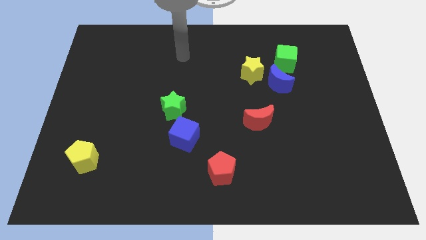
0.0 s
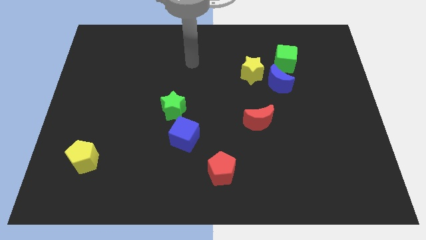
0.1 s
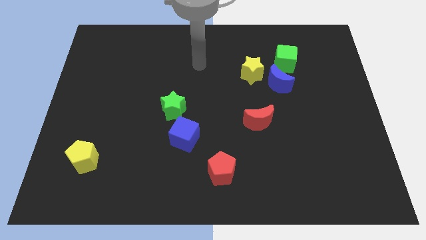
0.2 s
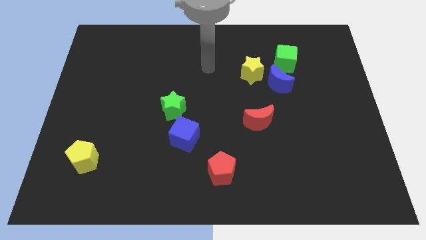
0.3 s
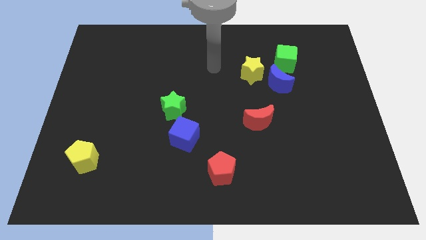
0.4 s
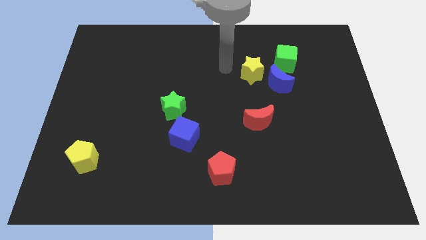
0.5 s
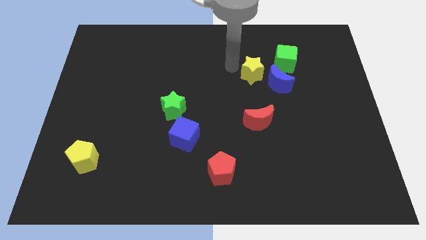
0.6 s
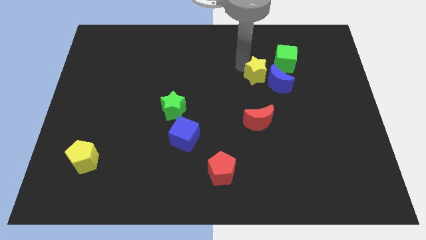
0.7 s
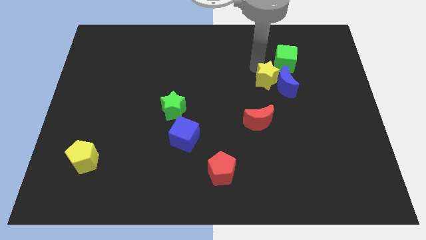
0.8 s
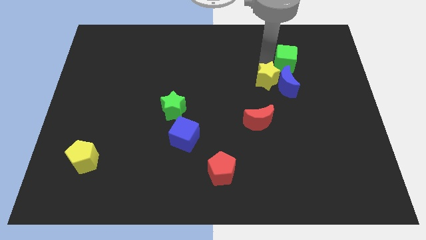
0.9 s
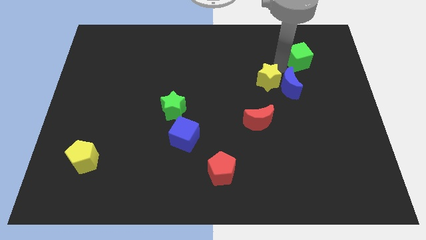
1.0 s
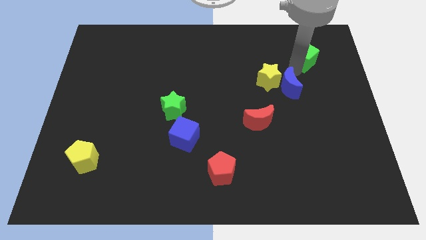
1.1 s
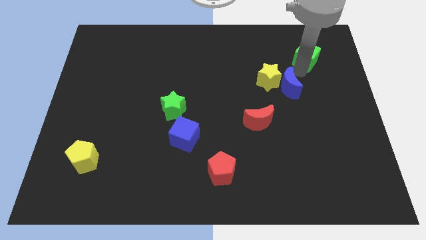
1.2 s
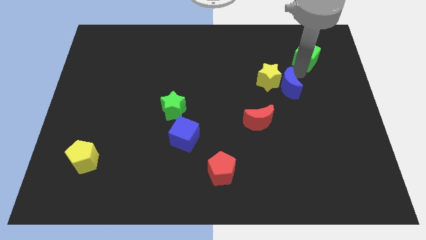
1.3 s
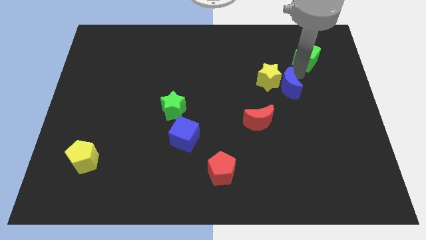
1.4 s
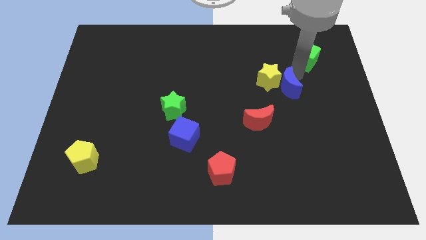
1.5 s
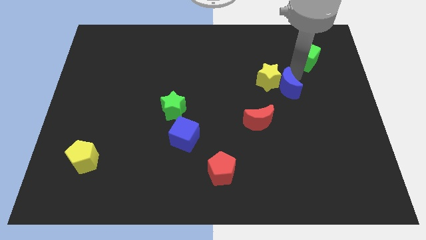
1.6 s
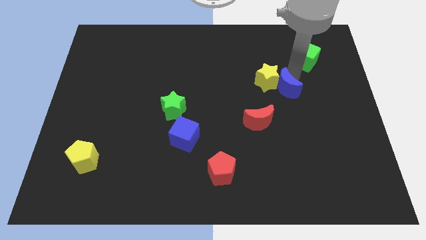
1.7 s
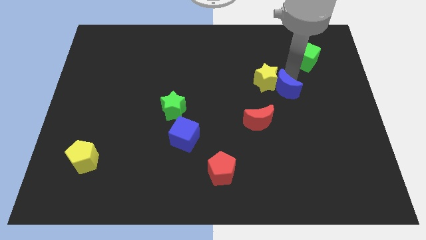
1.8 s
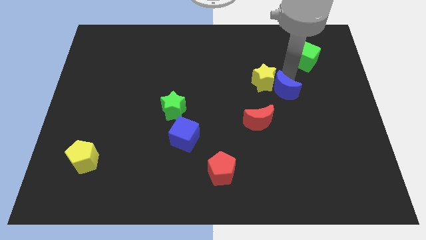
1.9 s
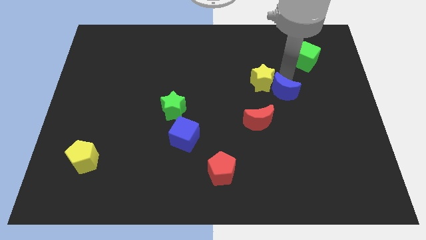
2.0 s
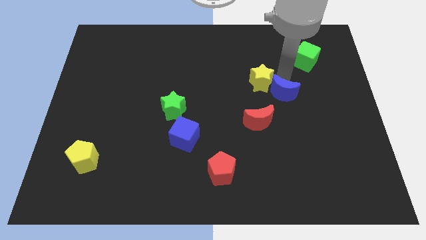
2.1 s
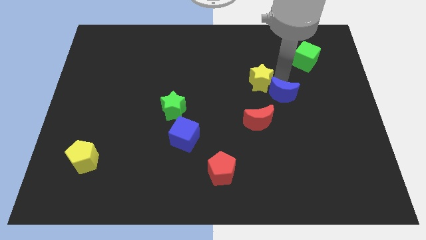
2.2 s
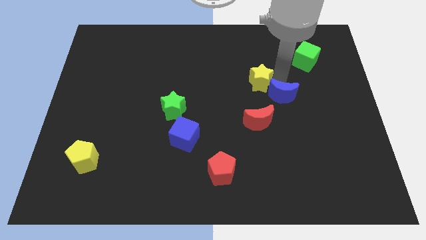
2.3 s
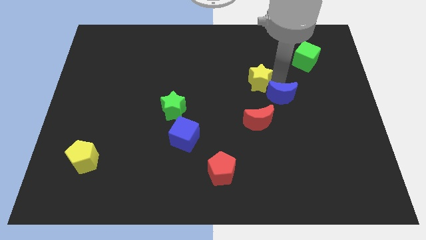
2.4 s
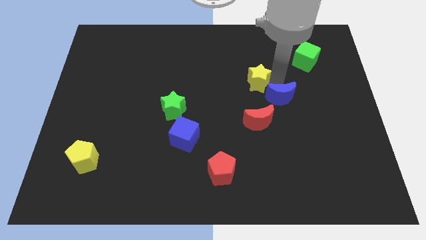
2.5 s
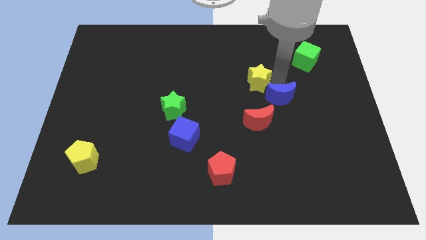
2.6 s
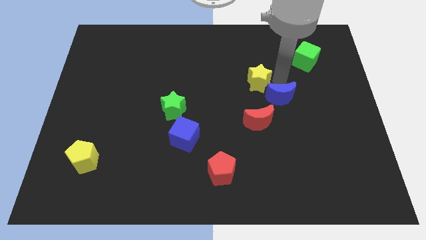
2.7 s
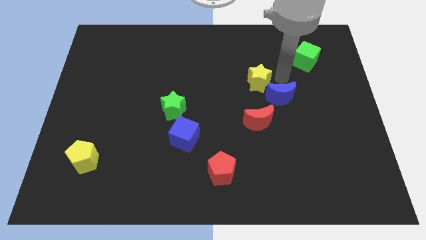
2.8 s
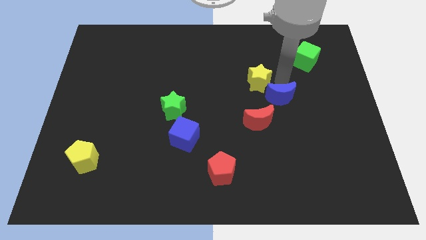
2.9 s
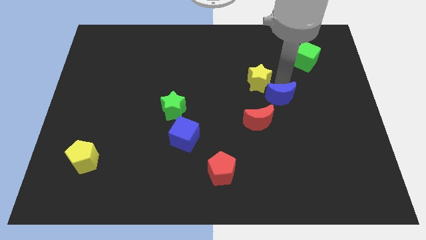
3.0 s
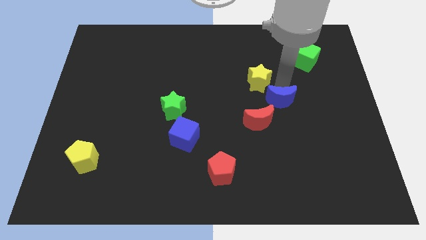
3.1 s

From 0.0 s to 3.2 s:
pull the blue moon apart from the yellow star and green cube

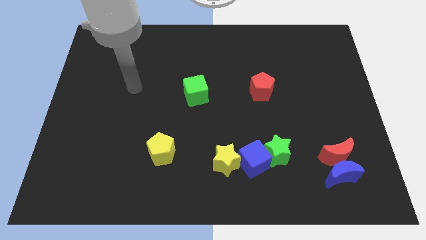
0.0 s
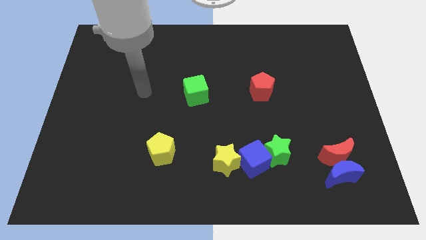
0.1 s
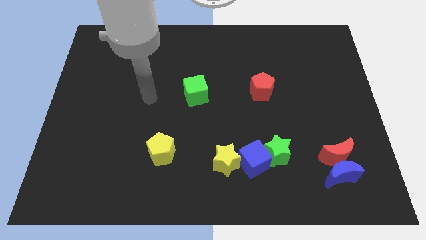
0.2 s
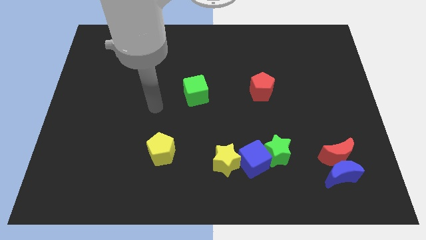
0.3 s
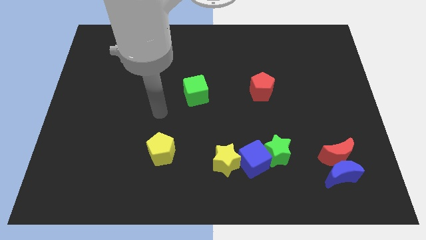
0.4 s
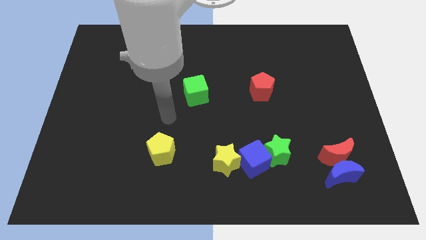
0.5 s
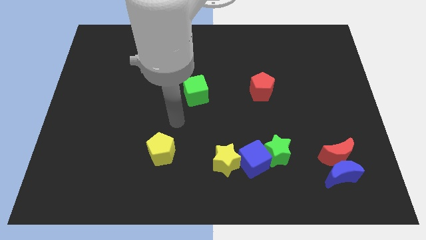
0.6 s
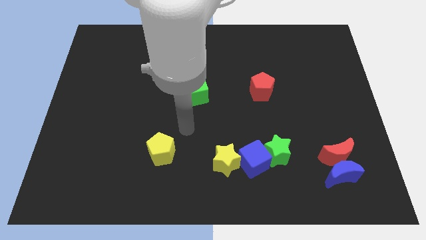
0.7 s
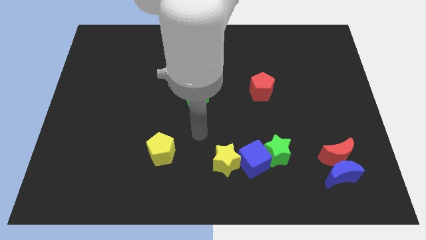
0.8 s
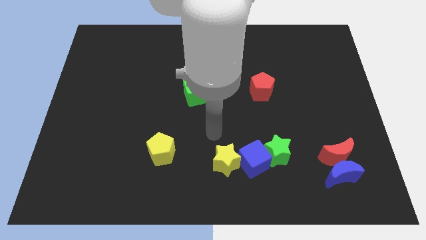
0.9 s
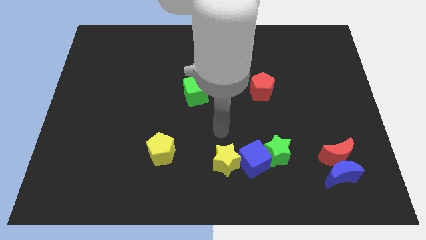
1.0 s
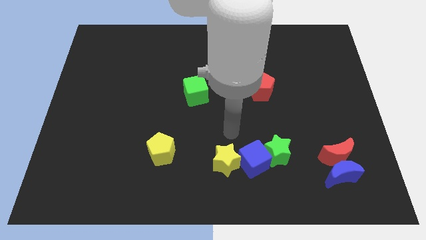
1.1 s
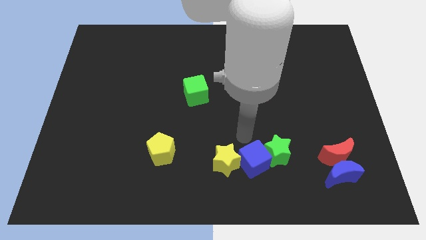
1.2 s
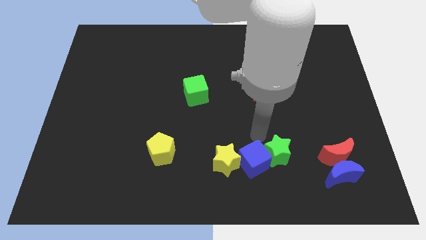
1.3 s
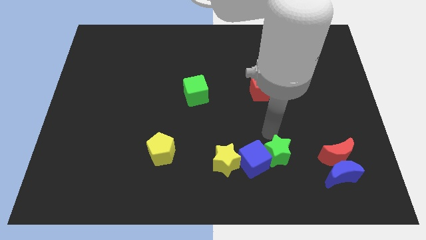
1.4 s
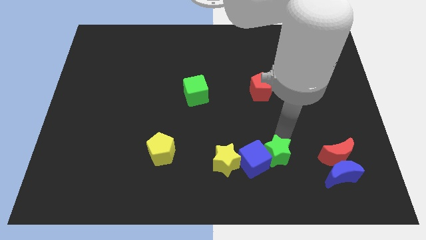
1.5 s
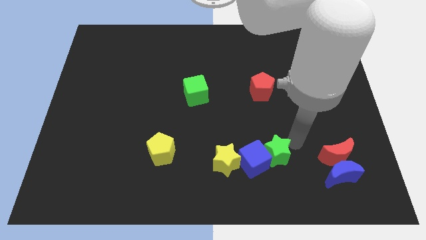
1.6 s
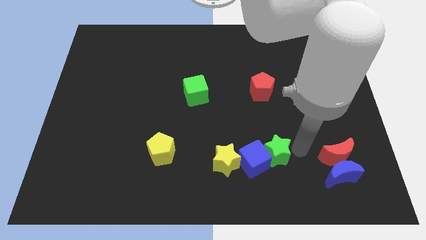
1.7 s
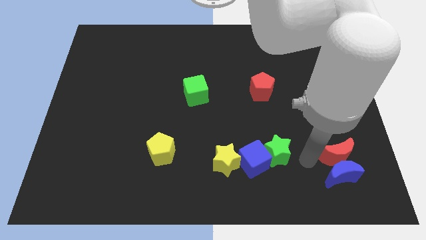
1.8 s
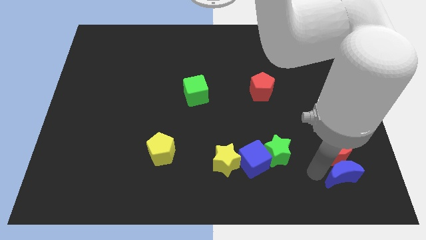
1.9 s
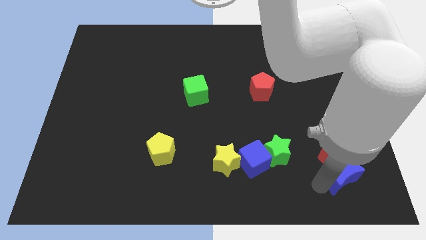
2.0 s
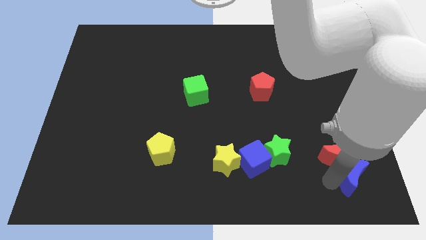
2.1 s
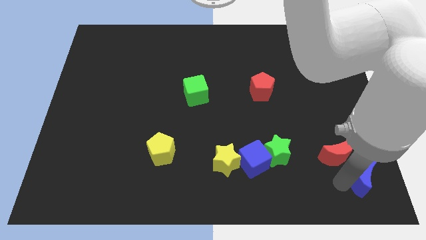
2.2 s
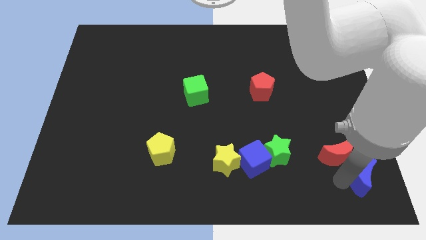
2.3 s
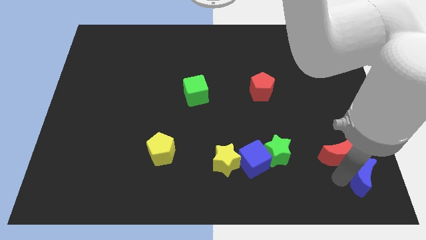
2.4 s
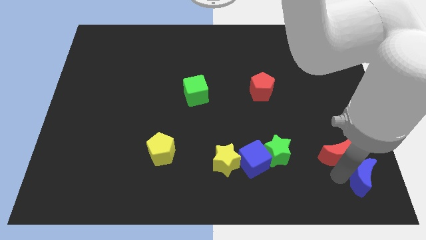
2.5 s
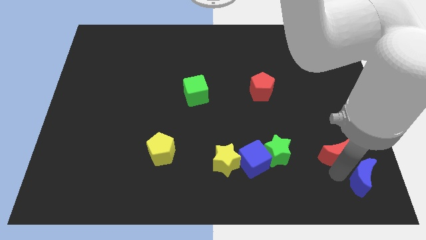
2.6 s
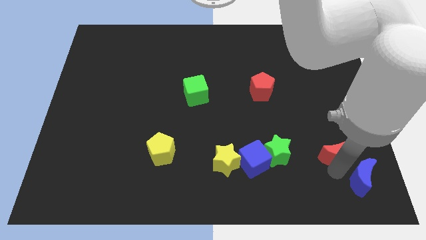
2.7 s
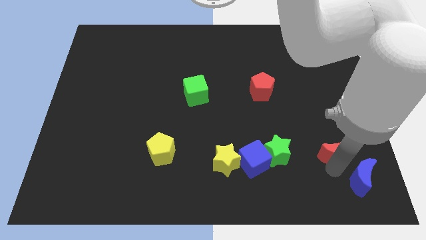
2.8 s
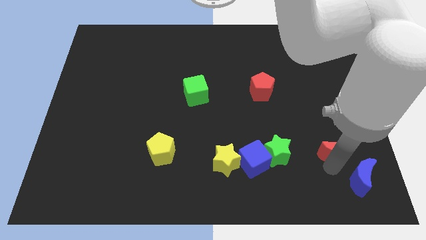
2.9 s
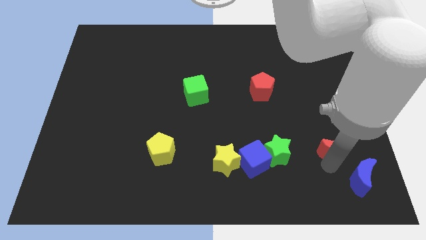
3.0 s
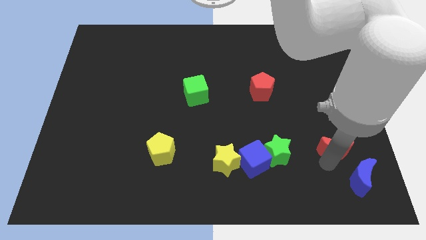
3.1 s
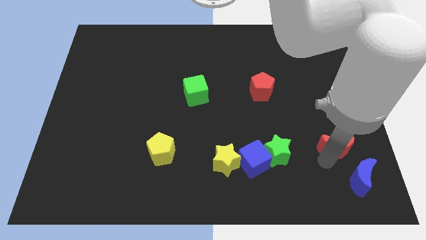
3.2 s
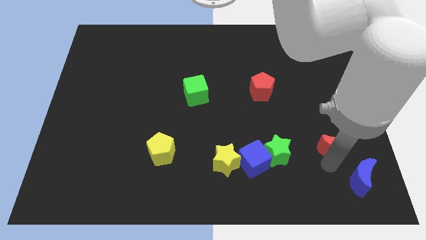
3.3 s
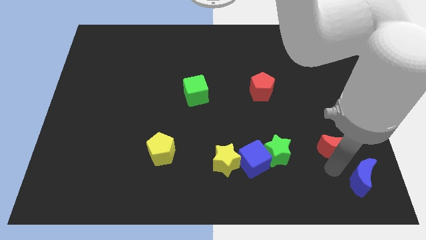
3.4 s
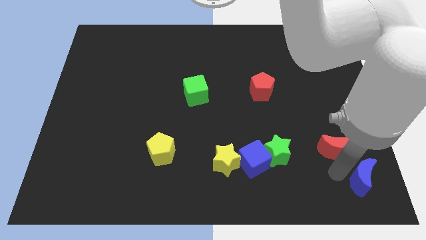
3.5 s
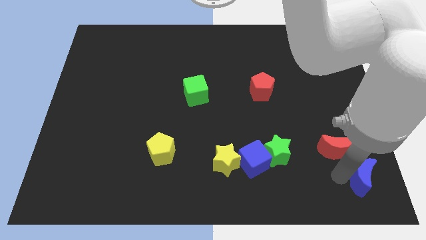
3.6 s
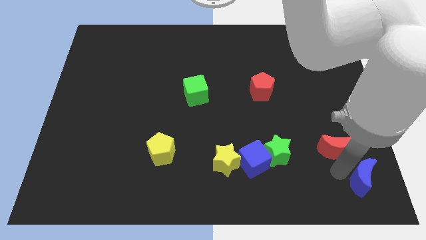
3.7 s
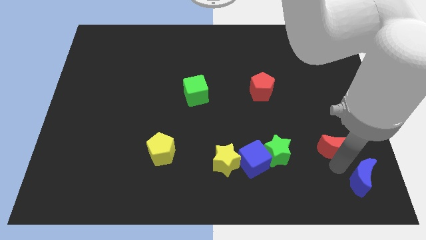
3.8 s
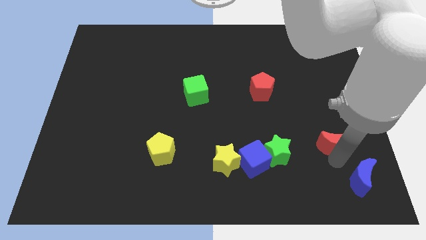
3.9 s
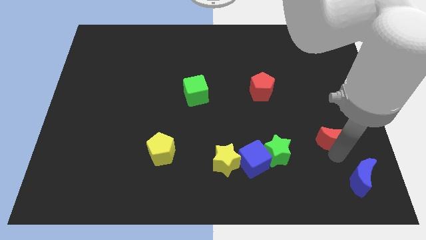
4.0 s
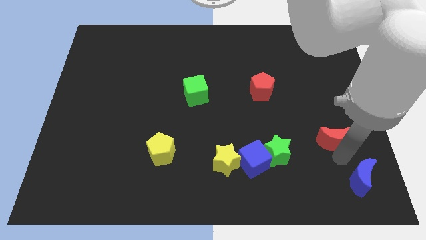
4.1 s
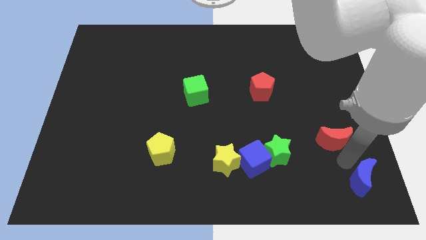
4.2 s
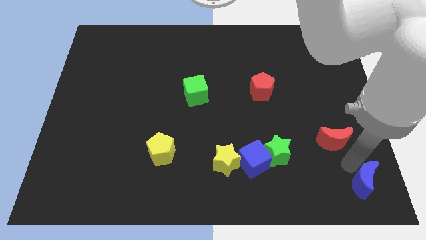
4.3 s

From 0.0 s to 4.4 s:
pull the red moon apart from the blue moon

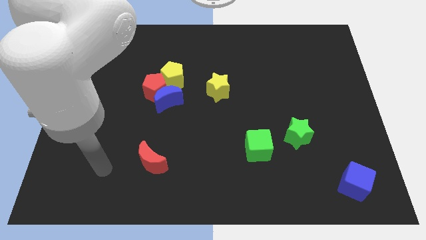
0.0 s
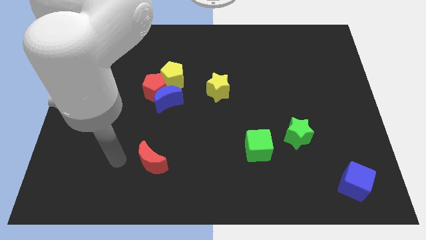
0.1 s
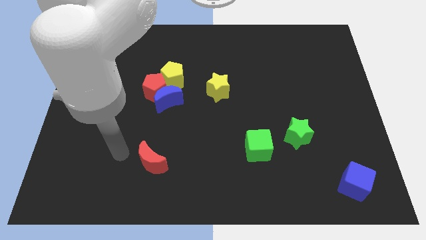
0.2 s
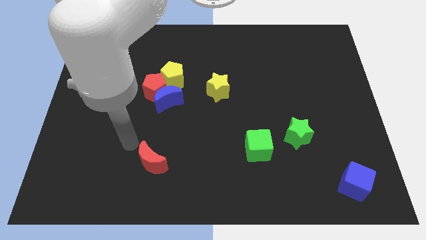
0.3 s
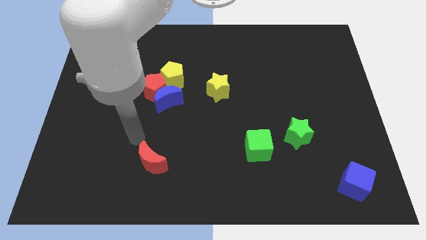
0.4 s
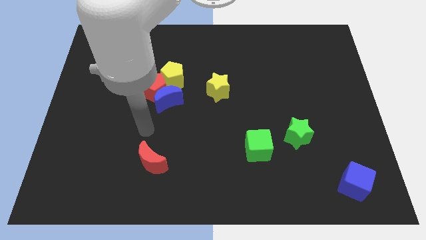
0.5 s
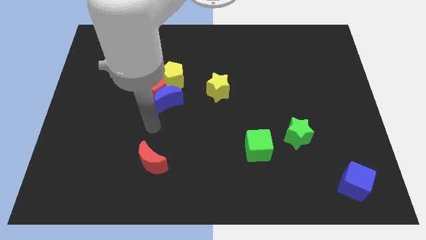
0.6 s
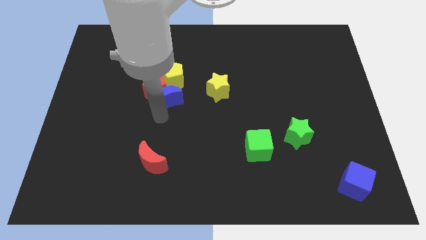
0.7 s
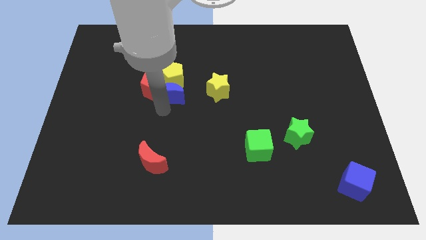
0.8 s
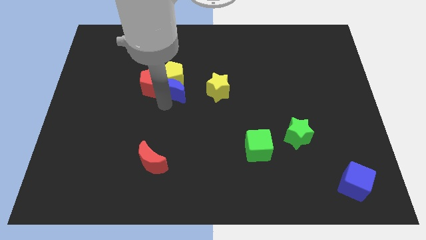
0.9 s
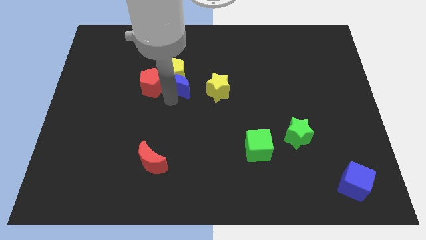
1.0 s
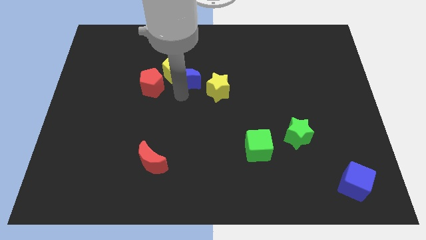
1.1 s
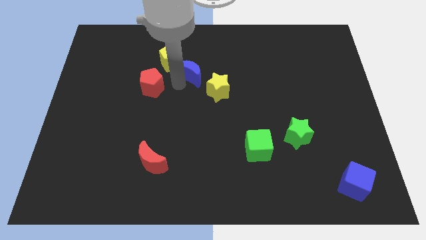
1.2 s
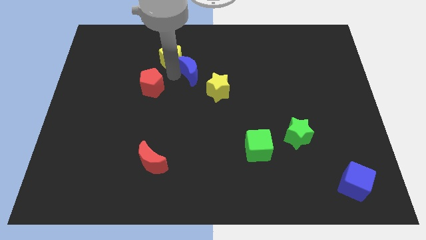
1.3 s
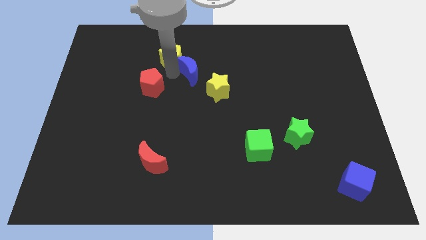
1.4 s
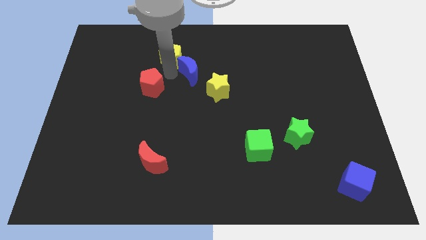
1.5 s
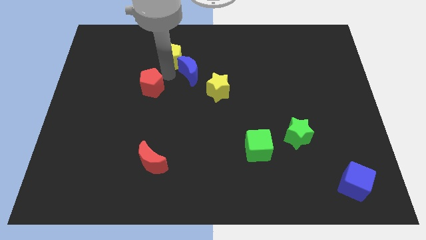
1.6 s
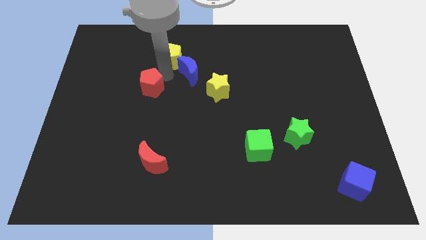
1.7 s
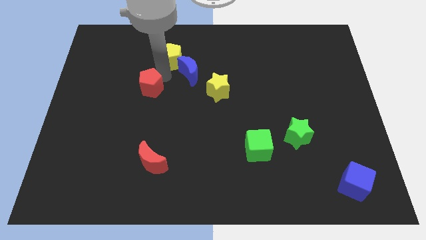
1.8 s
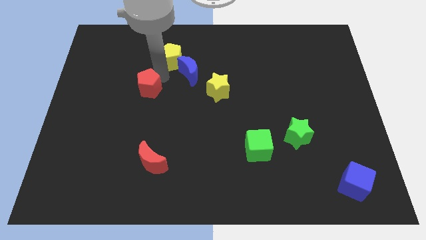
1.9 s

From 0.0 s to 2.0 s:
move the red pentagon away from the blue moon and yellow pentagon
